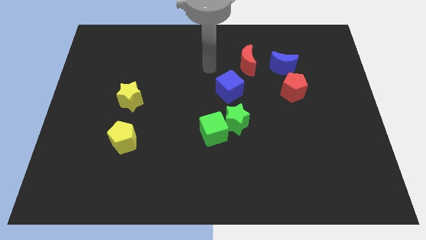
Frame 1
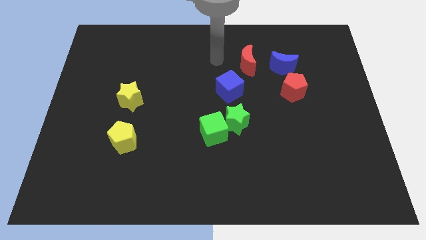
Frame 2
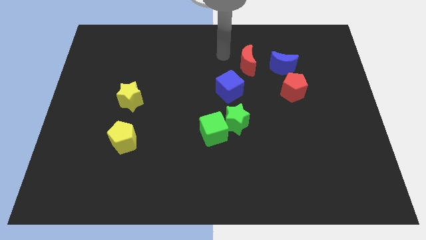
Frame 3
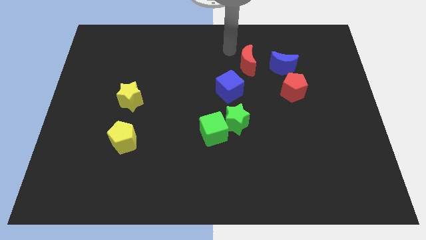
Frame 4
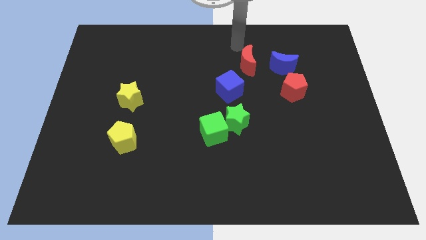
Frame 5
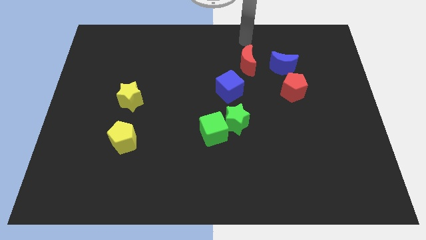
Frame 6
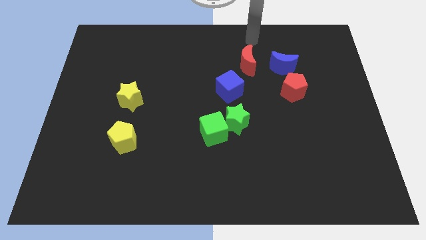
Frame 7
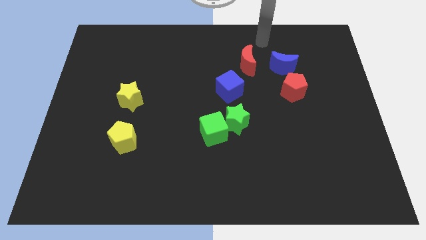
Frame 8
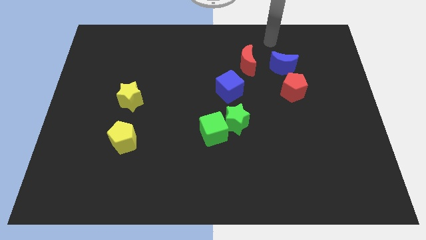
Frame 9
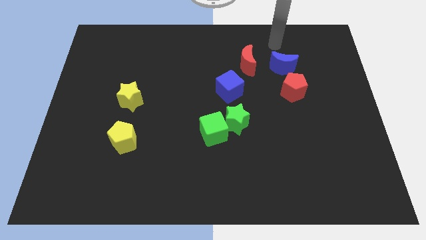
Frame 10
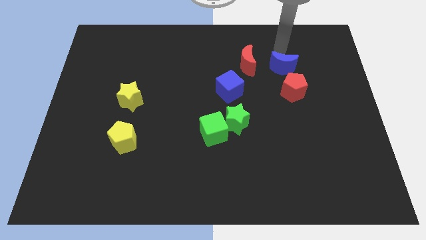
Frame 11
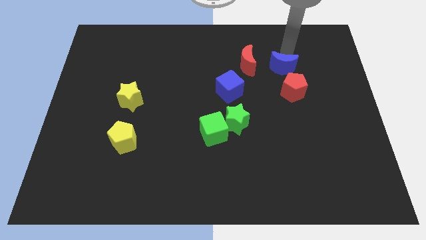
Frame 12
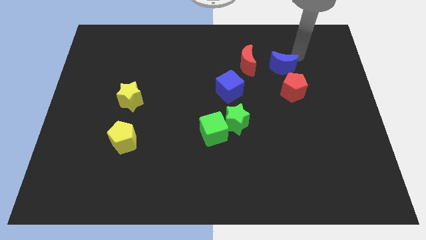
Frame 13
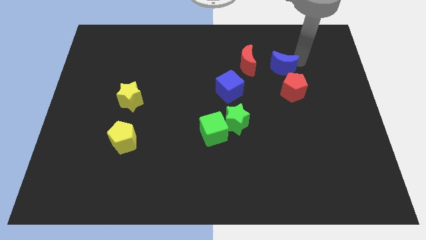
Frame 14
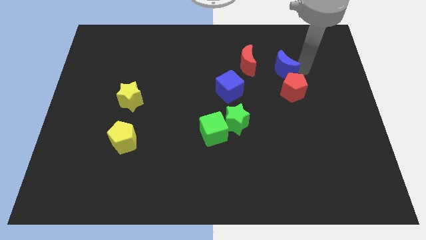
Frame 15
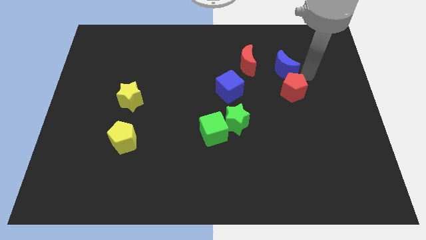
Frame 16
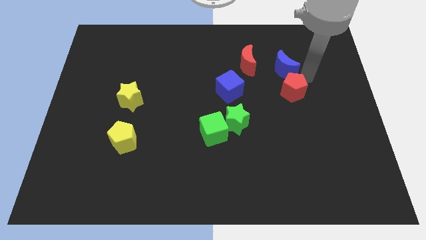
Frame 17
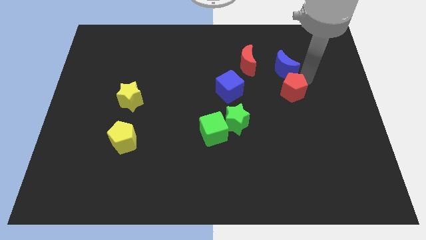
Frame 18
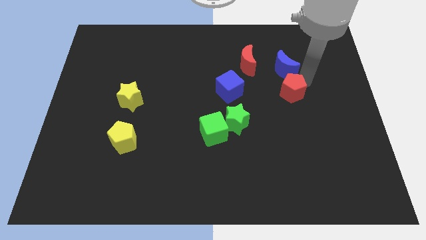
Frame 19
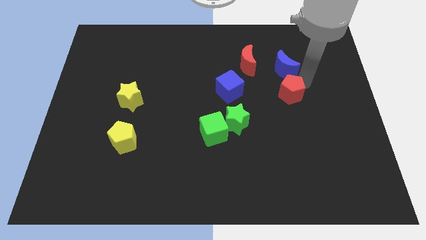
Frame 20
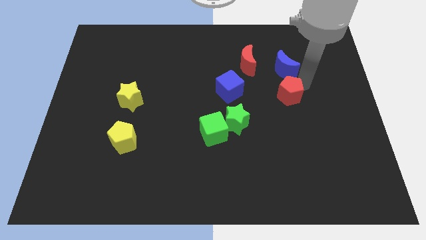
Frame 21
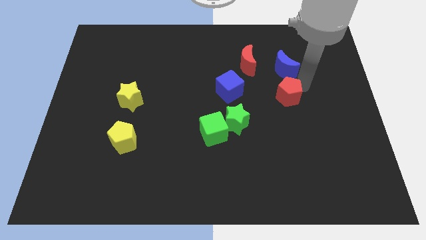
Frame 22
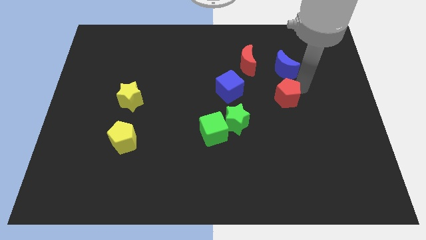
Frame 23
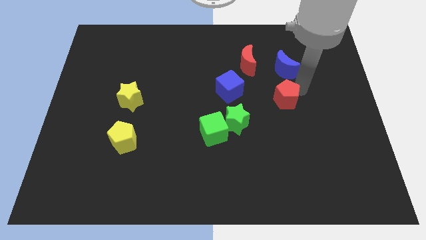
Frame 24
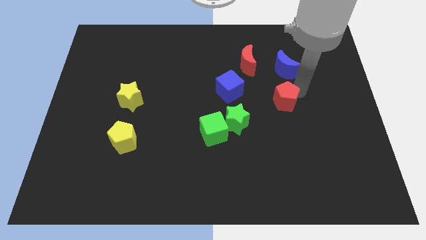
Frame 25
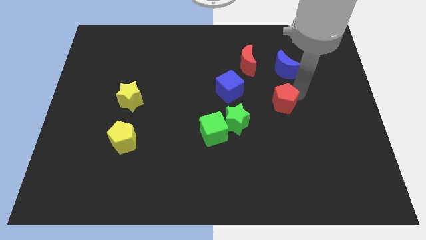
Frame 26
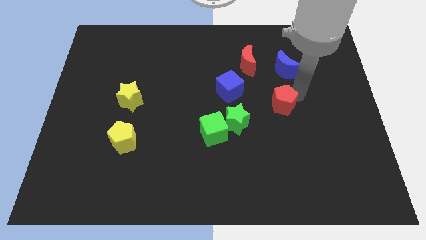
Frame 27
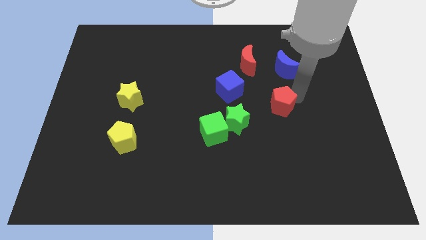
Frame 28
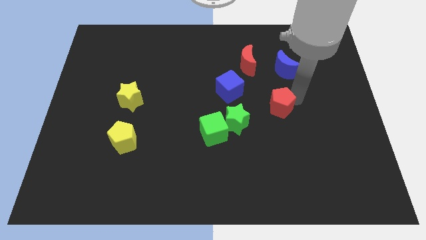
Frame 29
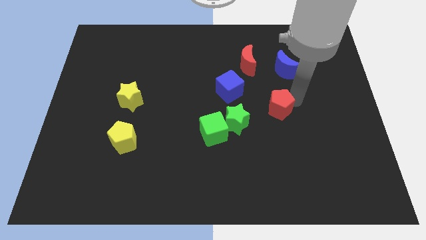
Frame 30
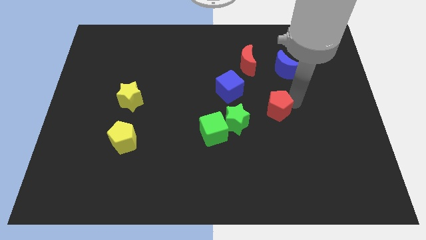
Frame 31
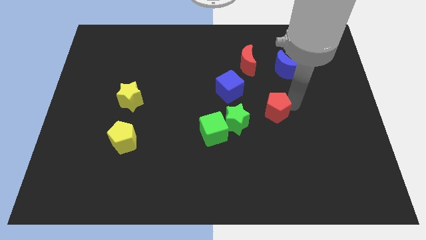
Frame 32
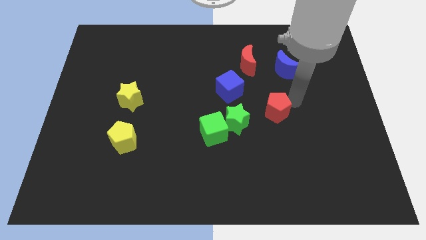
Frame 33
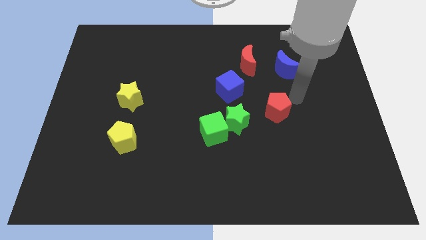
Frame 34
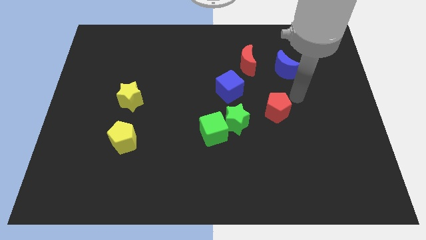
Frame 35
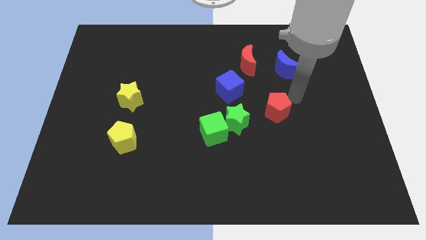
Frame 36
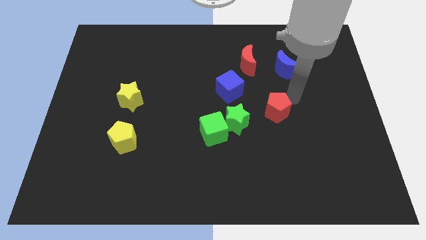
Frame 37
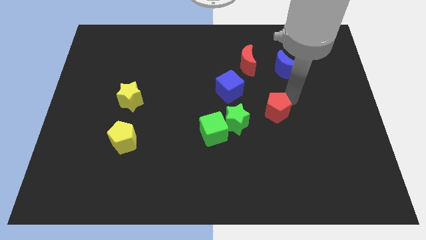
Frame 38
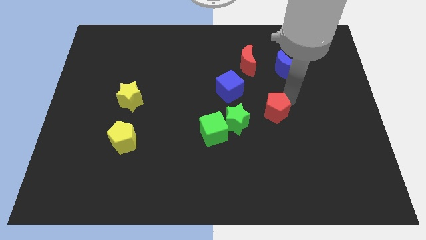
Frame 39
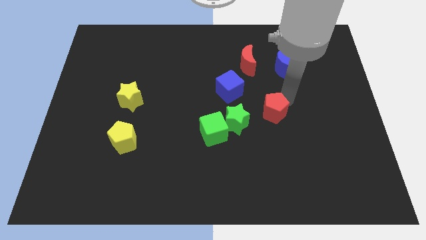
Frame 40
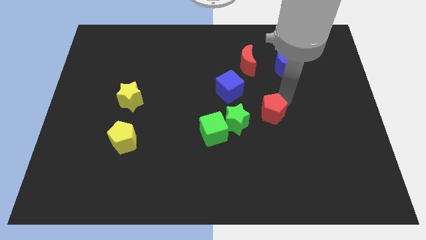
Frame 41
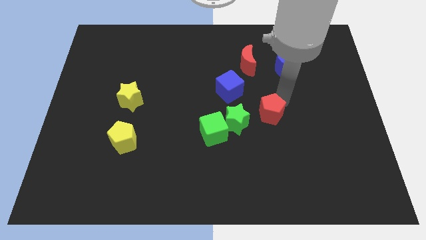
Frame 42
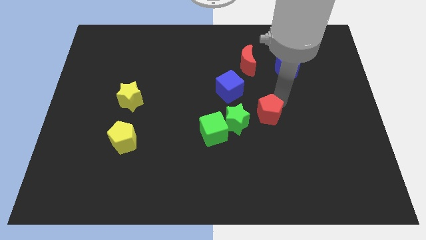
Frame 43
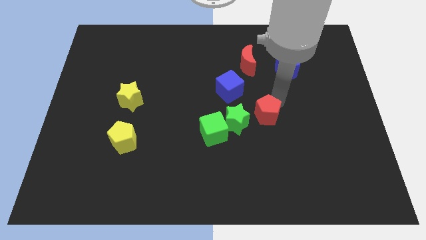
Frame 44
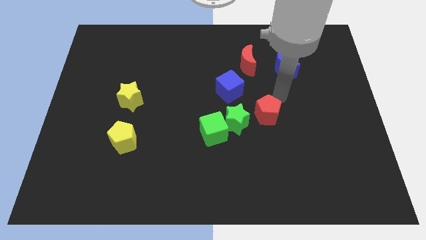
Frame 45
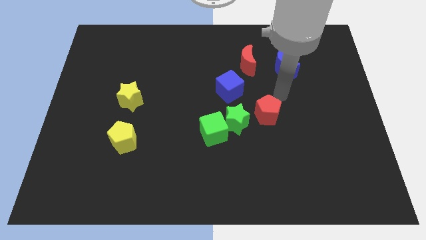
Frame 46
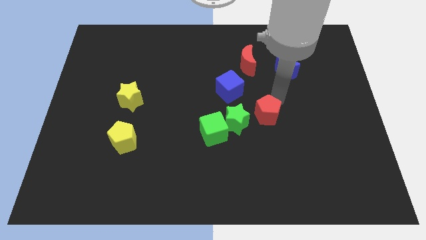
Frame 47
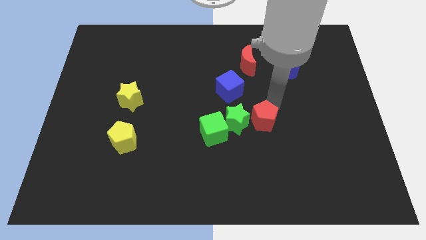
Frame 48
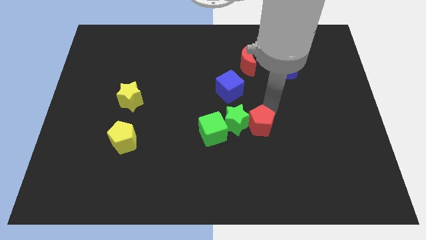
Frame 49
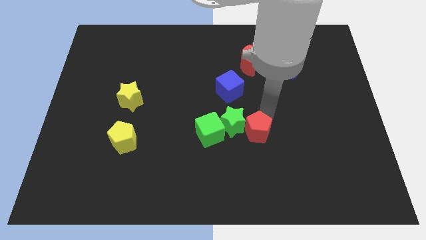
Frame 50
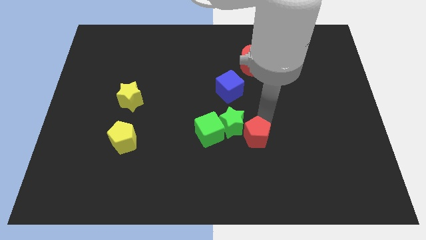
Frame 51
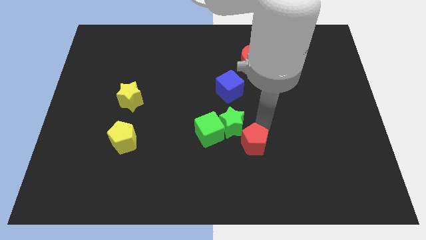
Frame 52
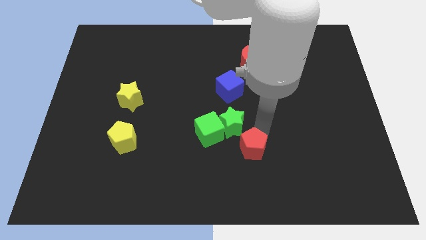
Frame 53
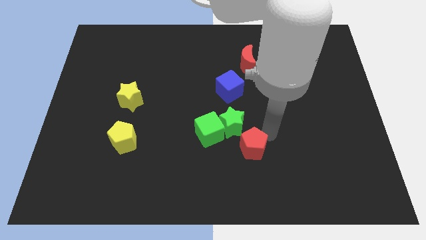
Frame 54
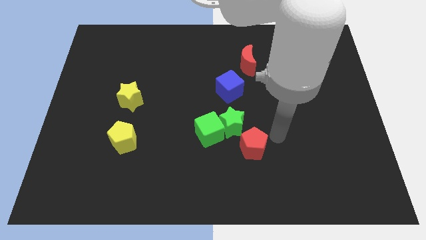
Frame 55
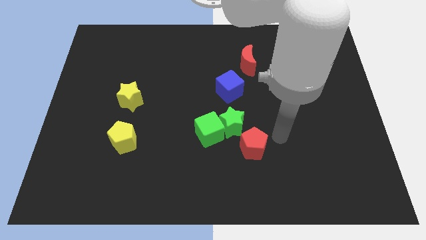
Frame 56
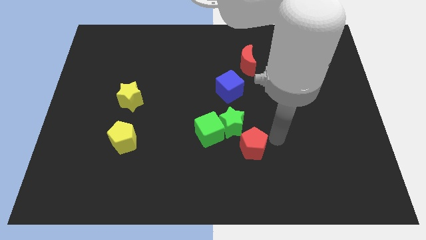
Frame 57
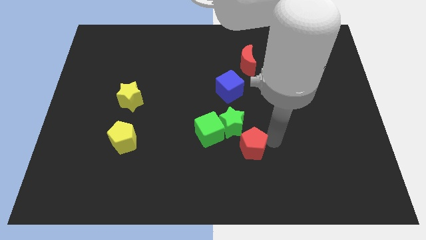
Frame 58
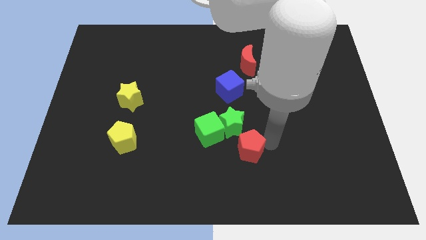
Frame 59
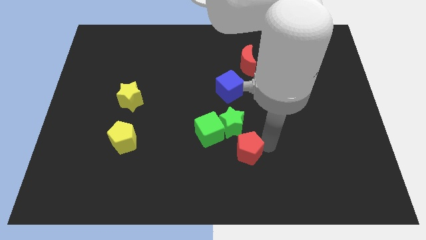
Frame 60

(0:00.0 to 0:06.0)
push the red pentagon diagonally downwards and left

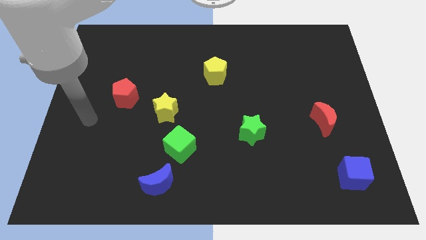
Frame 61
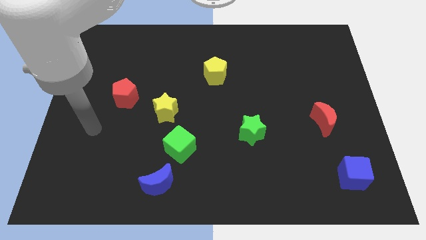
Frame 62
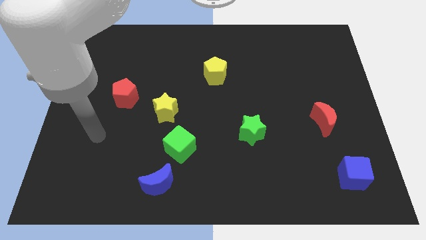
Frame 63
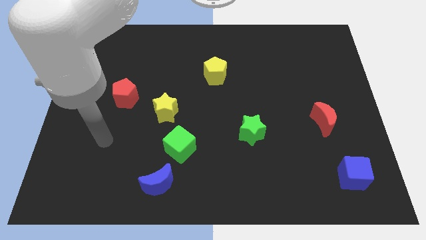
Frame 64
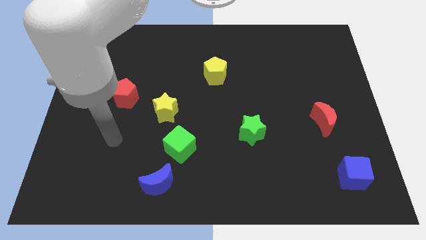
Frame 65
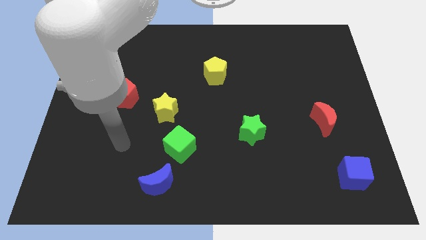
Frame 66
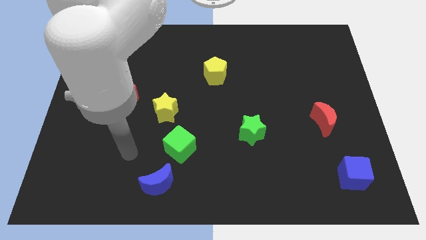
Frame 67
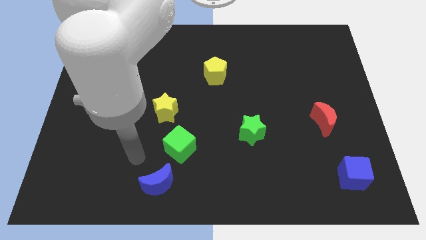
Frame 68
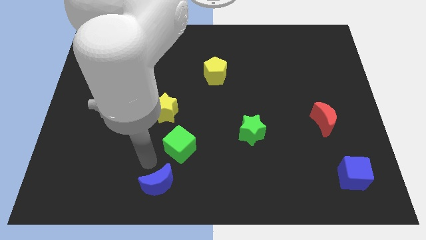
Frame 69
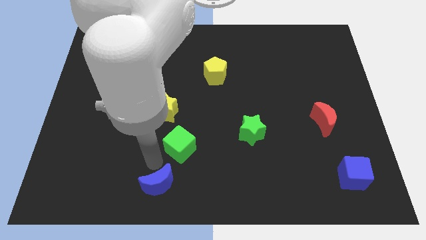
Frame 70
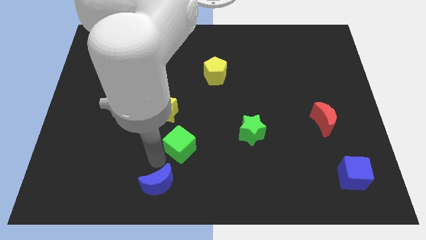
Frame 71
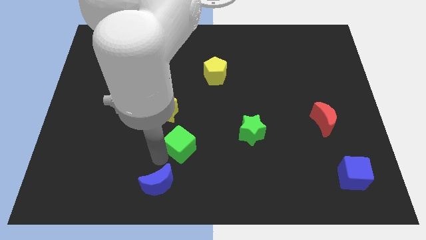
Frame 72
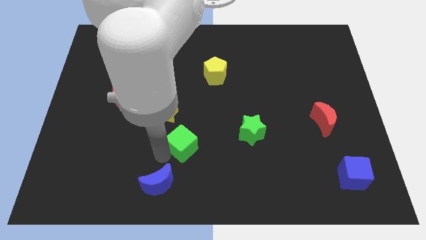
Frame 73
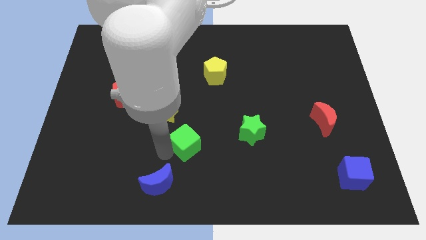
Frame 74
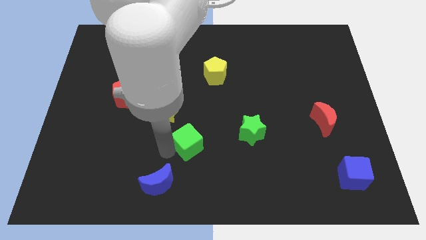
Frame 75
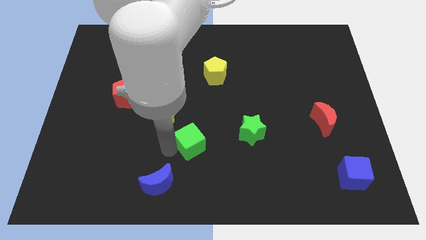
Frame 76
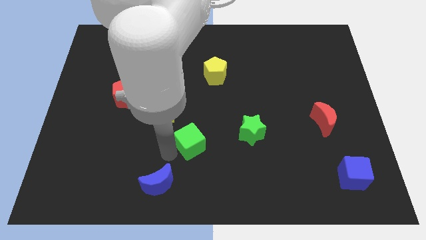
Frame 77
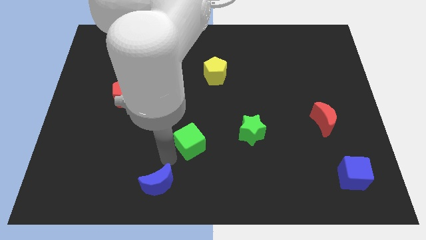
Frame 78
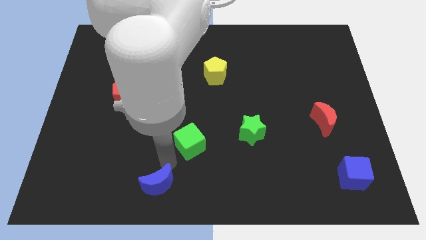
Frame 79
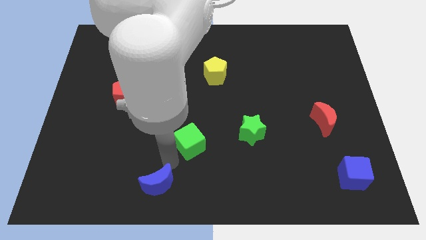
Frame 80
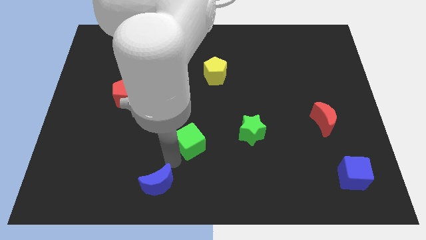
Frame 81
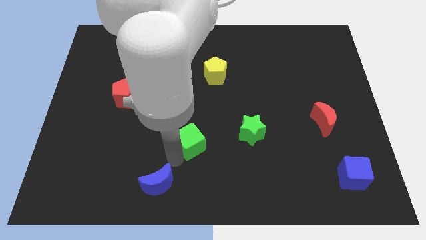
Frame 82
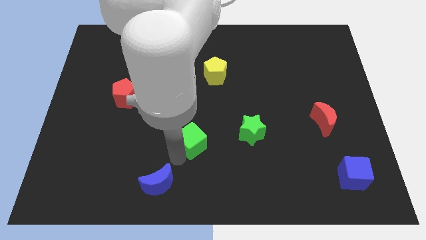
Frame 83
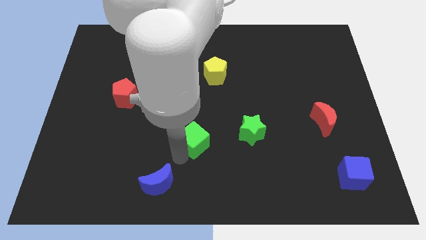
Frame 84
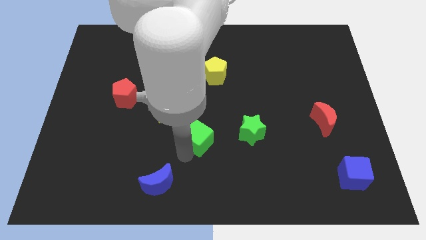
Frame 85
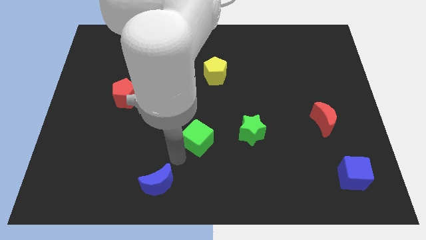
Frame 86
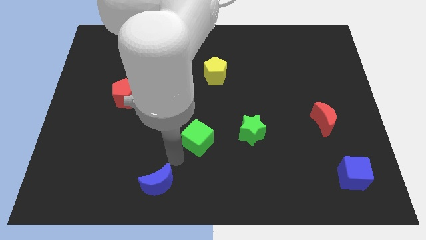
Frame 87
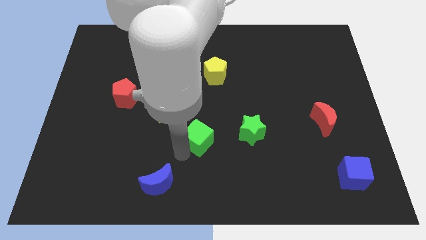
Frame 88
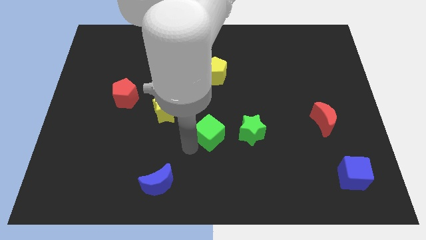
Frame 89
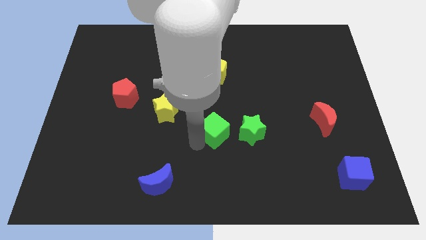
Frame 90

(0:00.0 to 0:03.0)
slightly slide the green cube diagonally upwards and right
